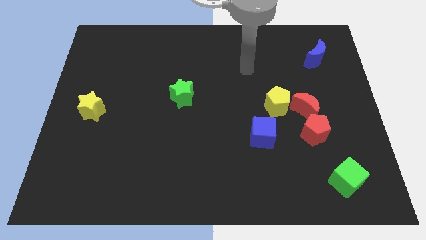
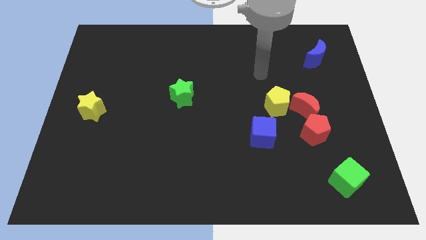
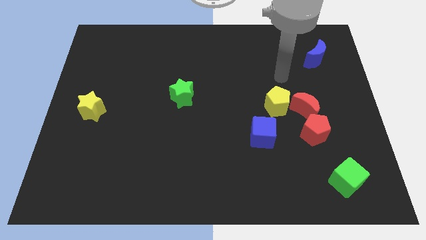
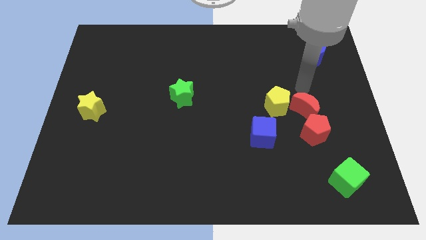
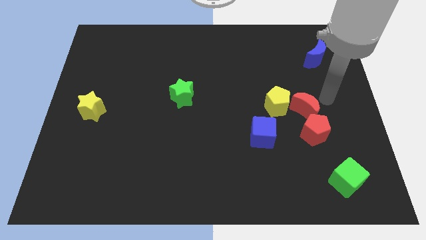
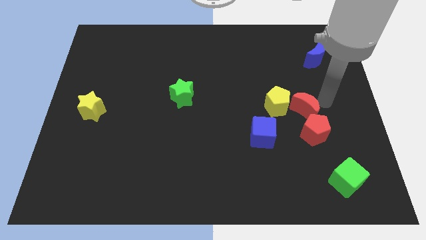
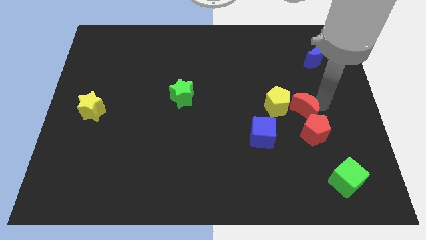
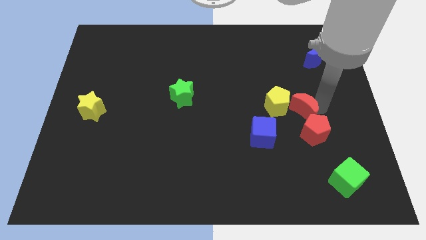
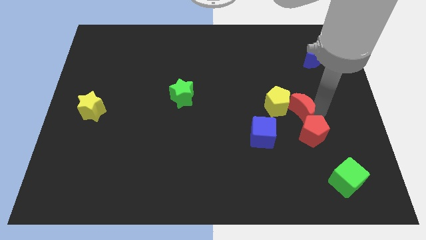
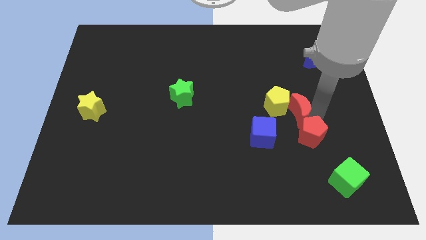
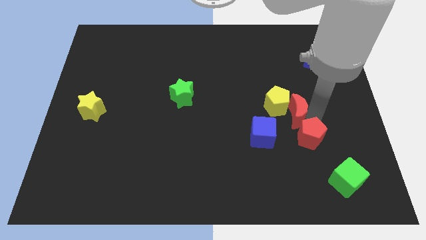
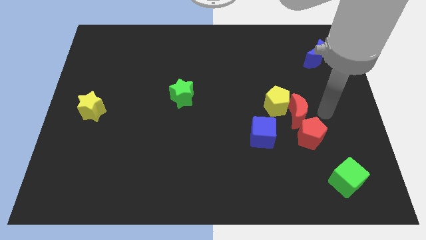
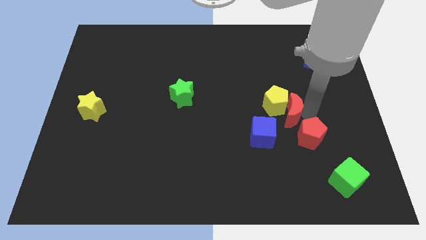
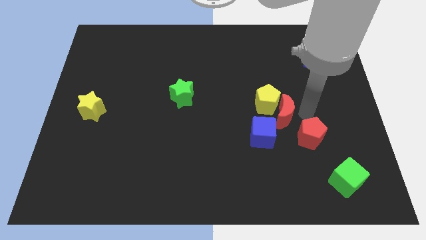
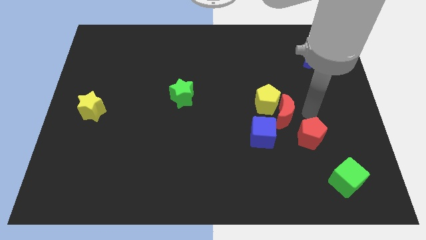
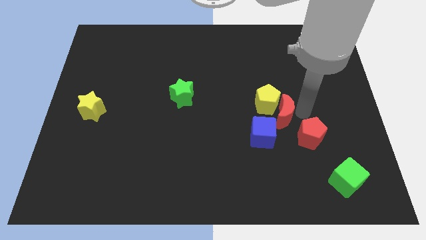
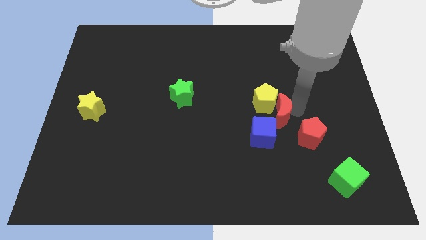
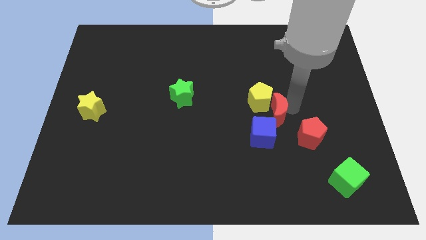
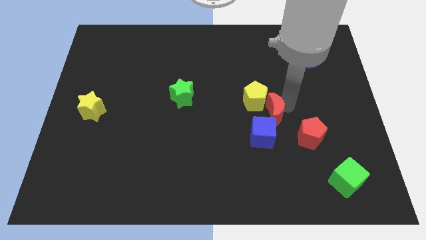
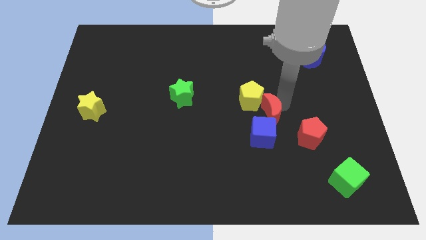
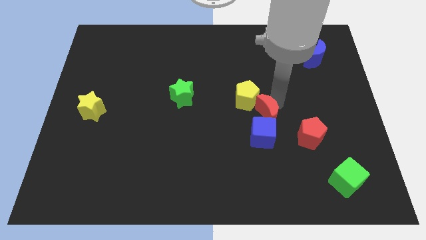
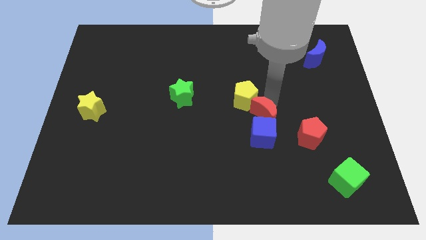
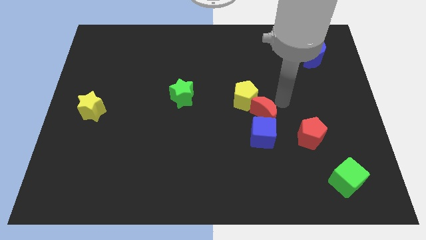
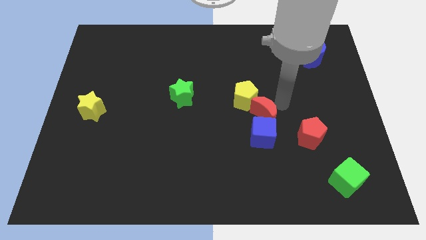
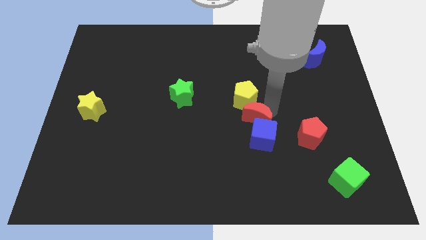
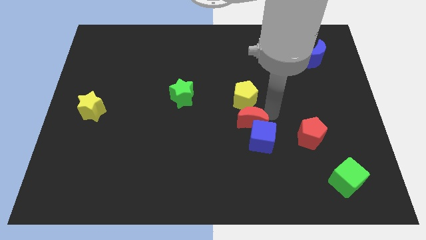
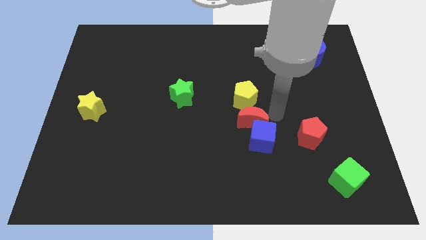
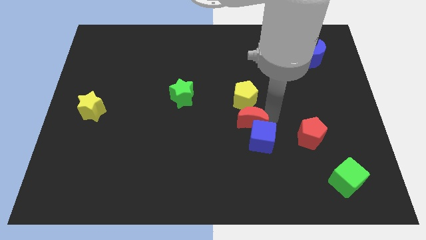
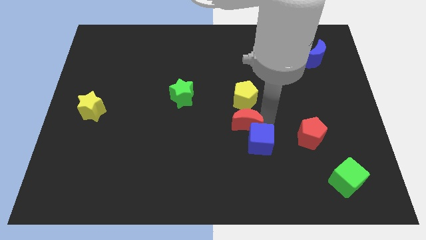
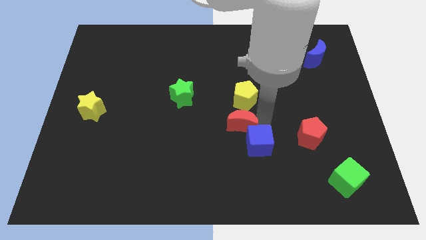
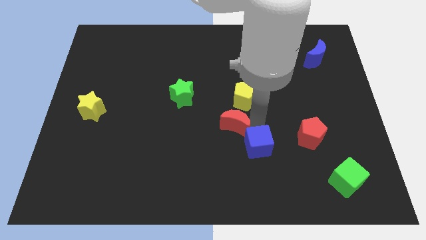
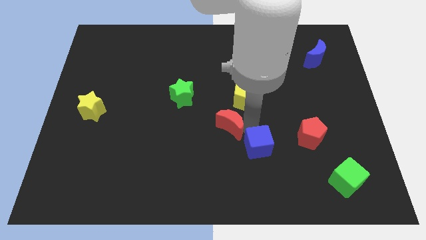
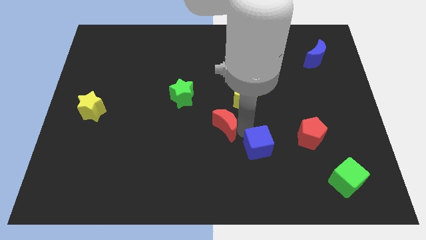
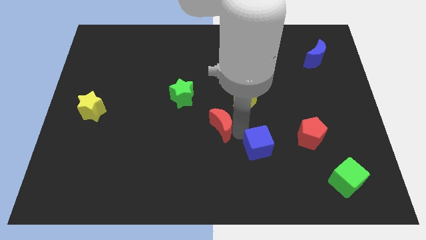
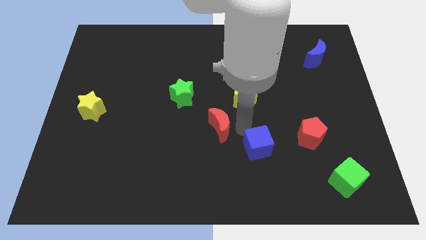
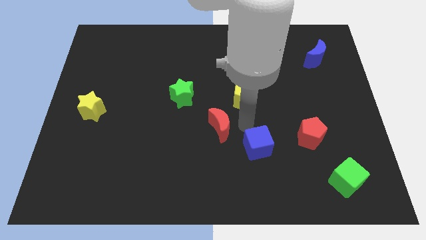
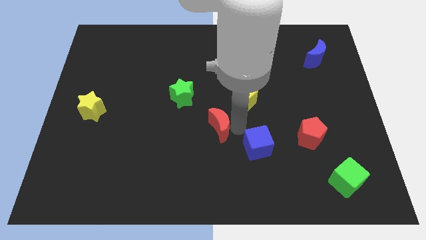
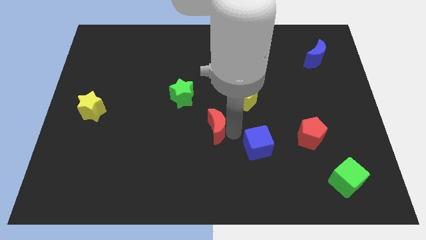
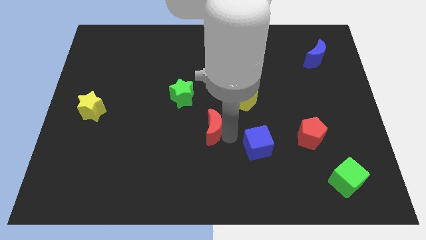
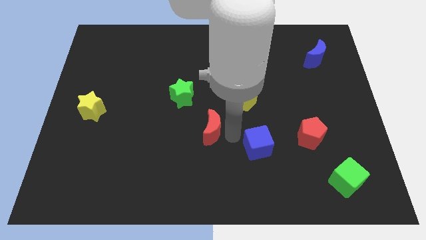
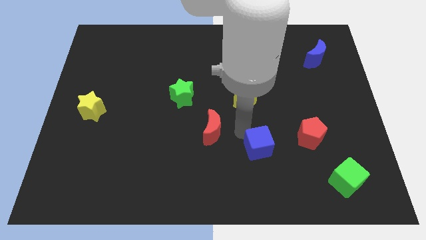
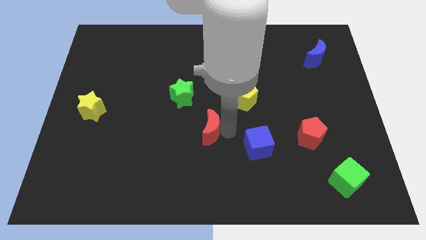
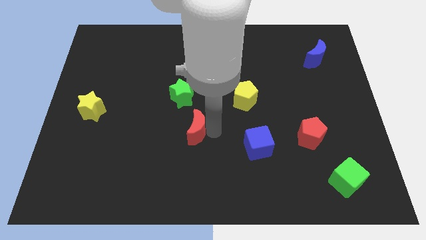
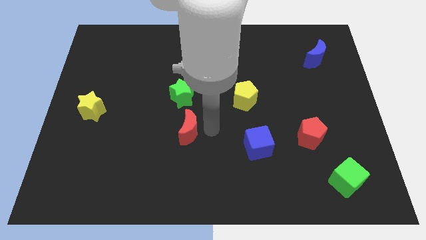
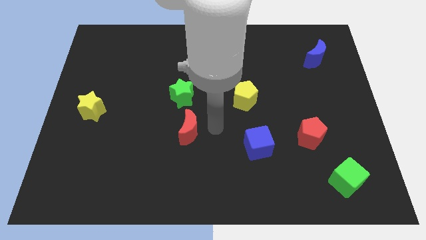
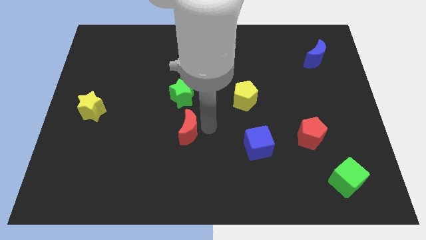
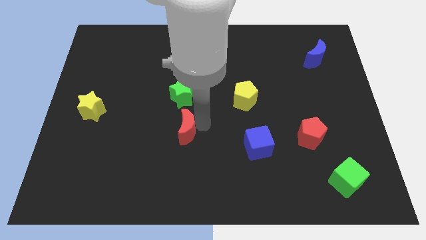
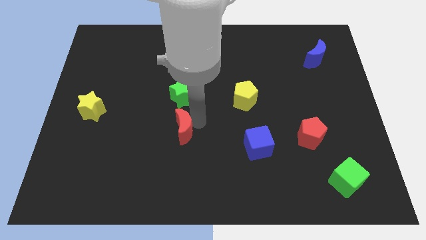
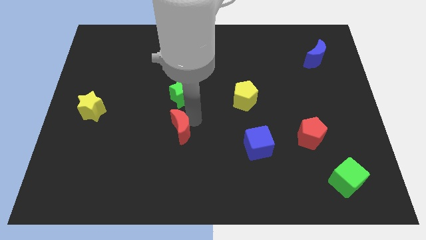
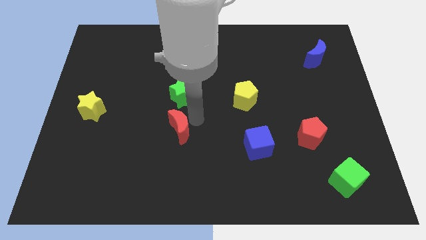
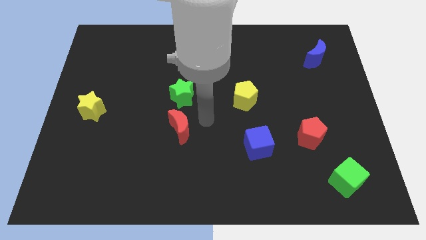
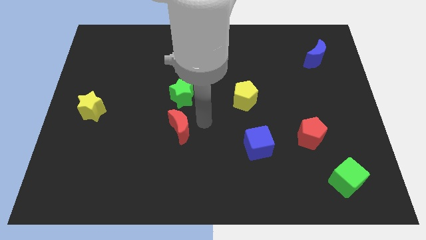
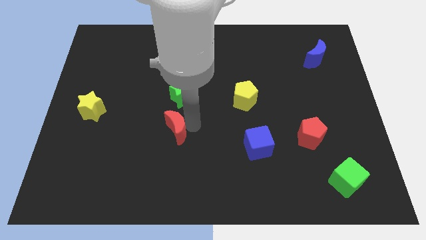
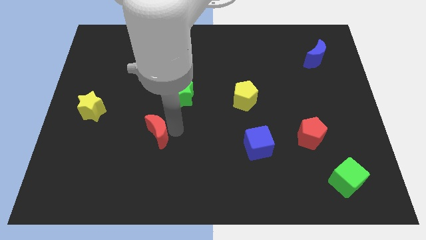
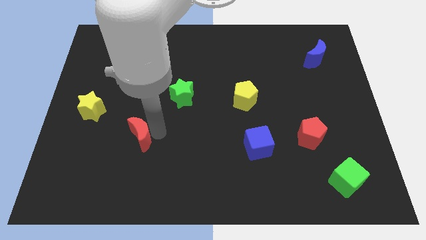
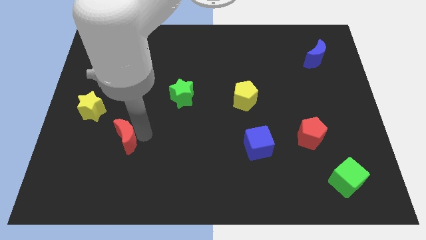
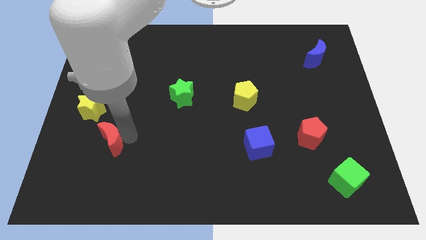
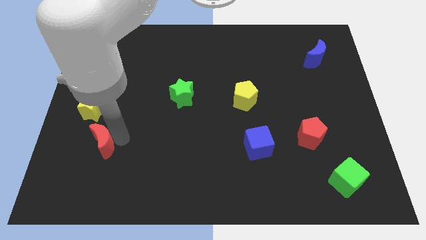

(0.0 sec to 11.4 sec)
put the red moon below the yellow star

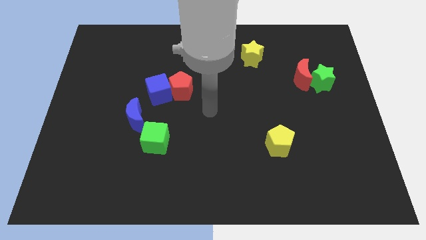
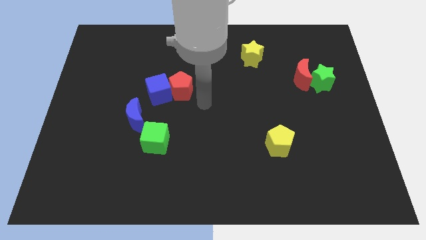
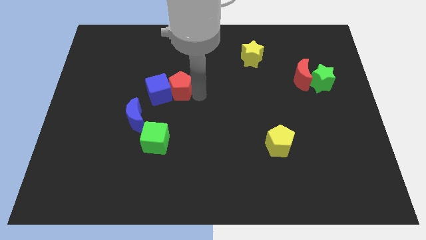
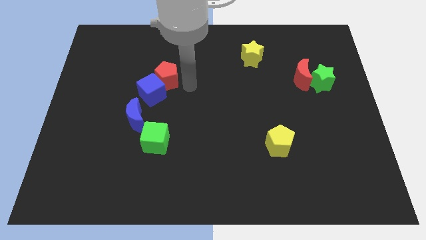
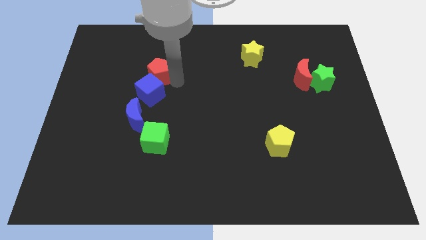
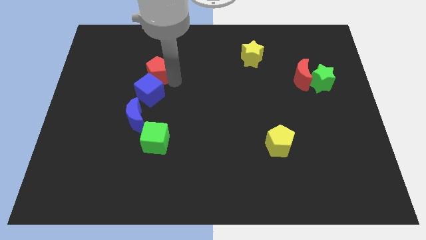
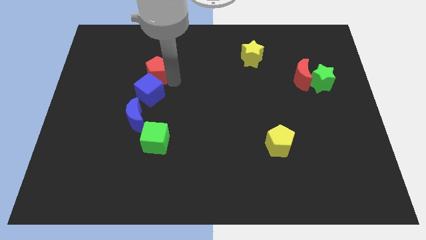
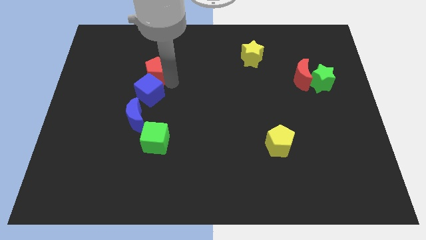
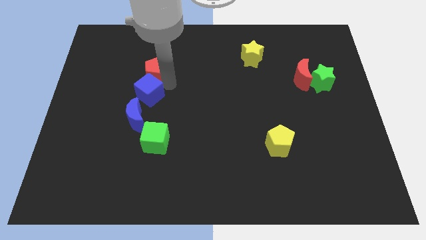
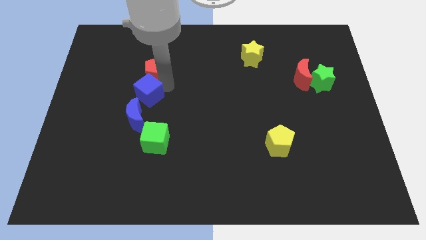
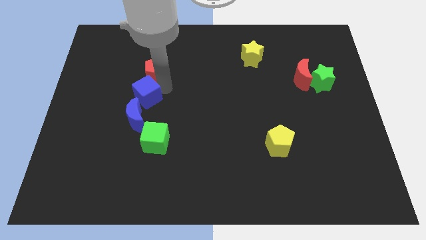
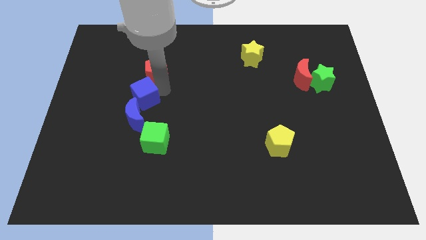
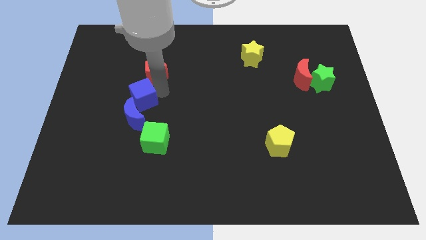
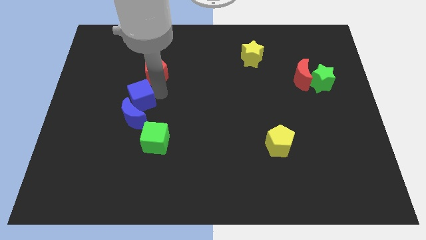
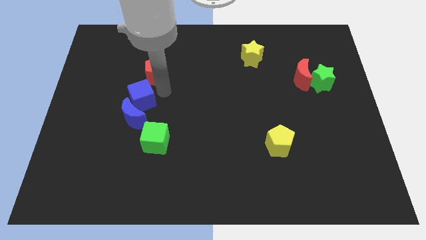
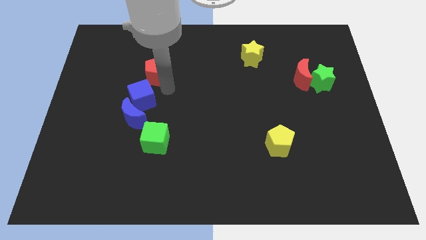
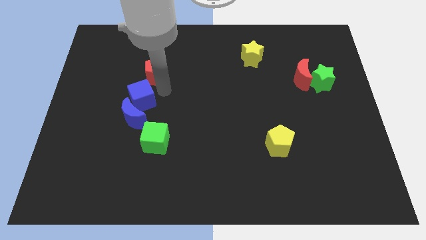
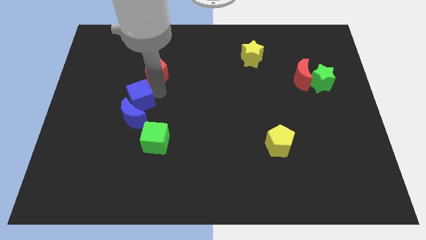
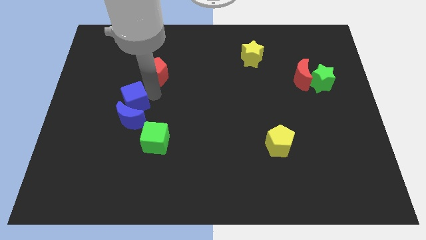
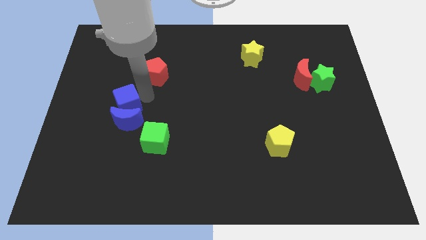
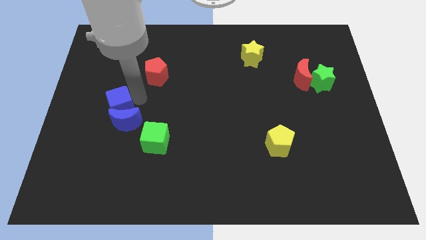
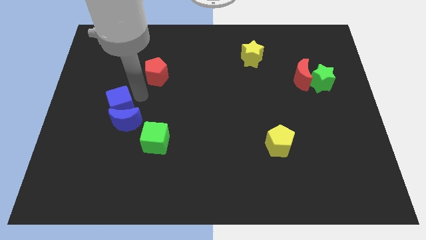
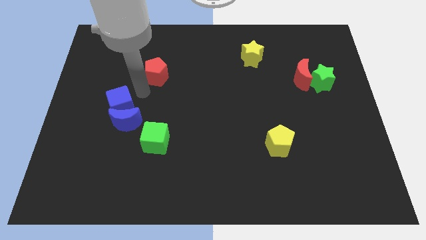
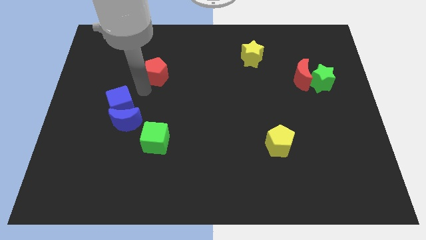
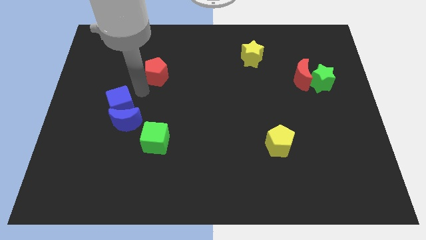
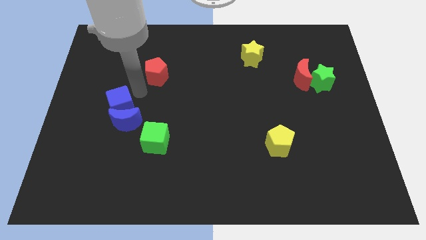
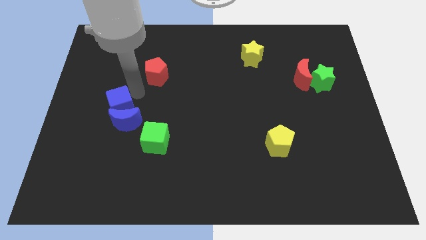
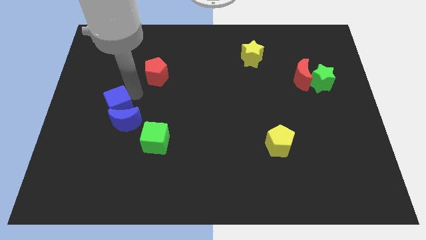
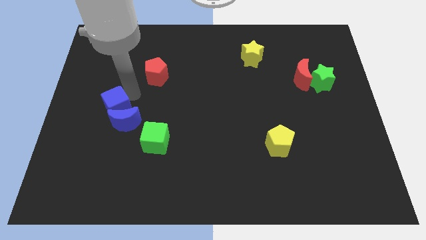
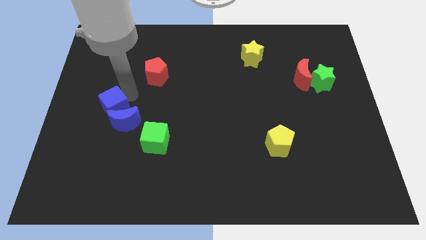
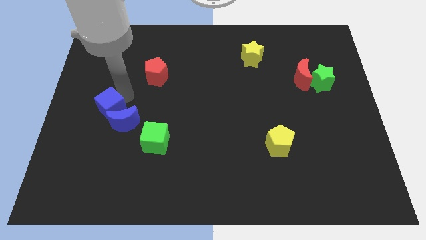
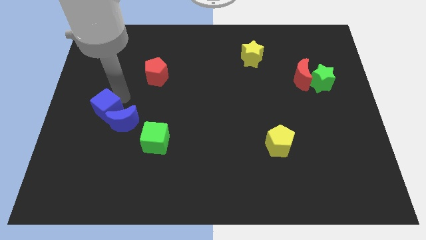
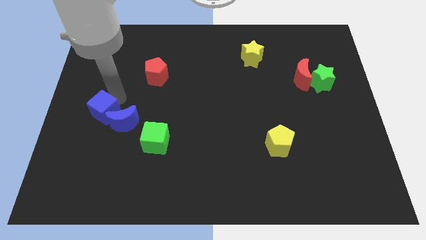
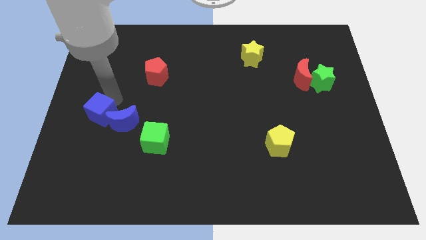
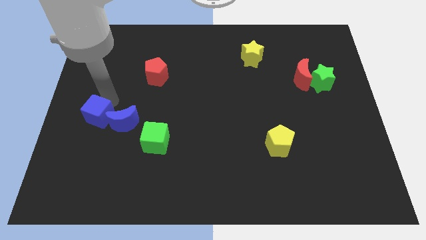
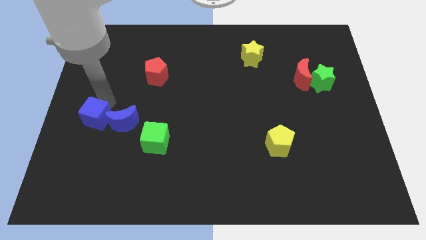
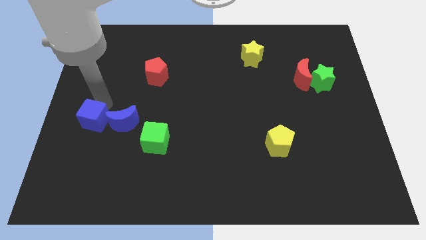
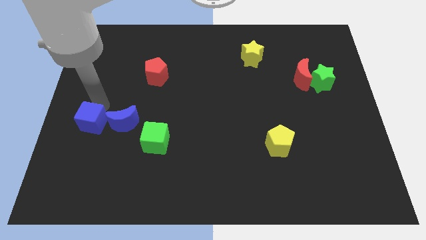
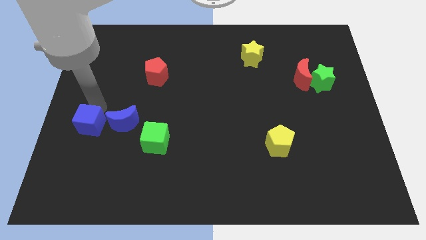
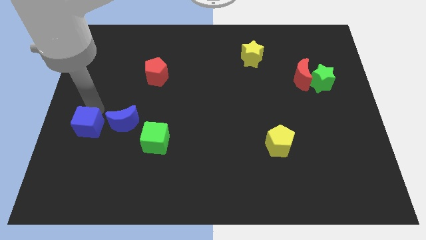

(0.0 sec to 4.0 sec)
slide the blue cube to the bottom left side of the blue moon
